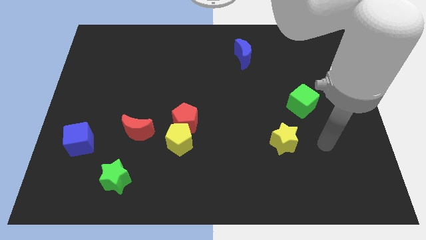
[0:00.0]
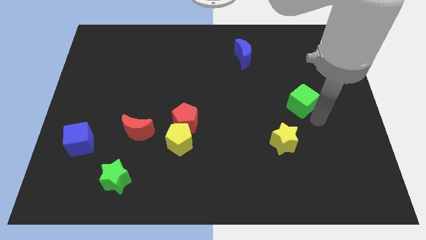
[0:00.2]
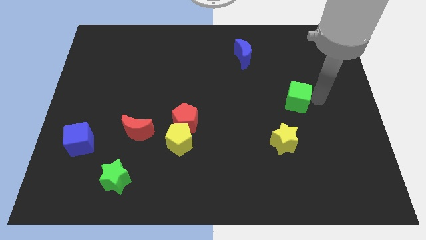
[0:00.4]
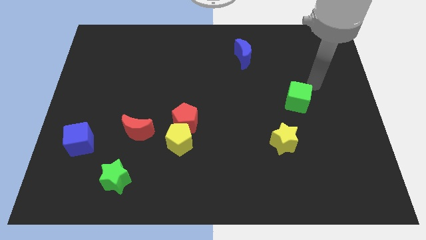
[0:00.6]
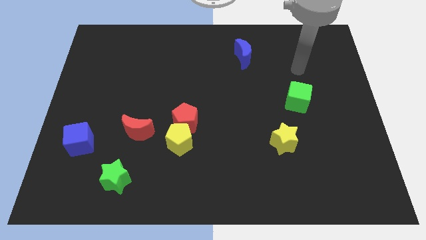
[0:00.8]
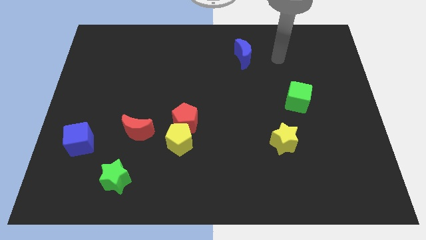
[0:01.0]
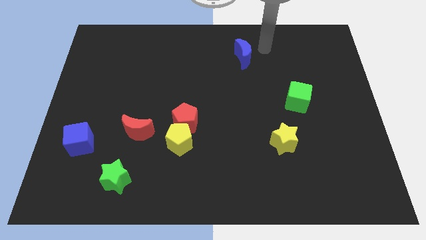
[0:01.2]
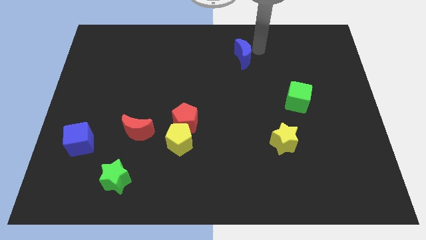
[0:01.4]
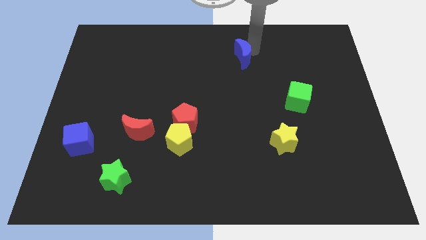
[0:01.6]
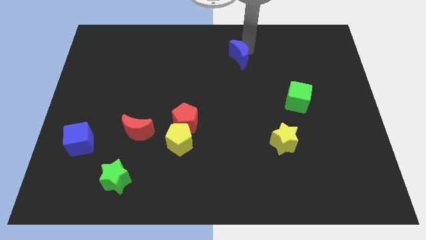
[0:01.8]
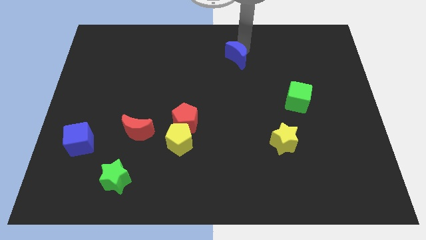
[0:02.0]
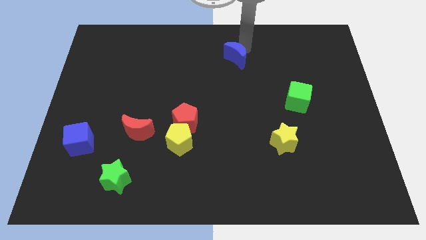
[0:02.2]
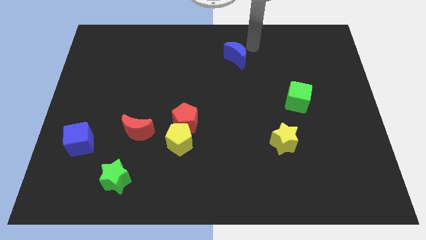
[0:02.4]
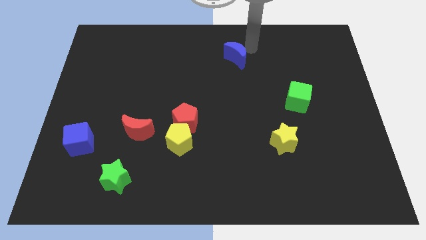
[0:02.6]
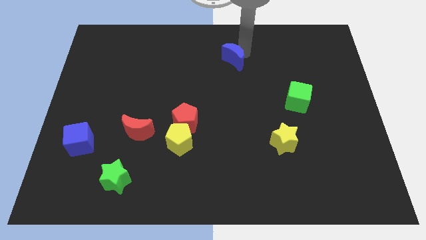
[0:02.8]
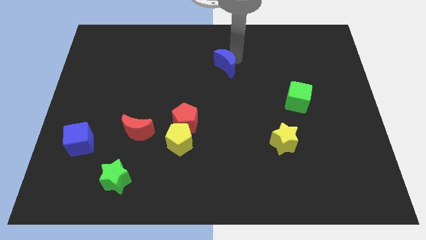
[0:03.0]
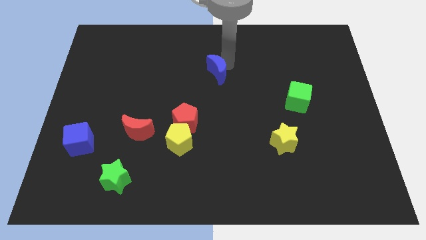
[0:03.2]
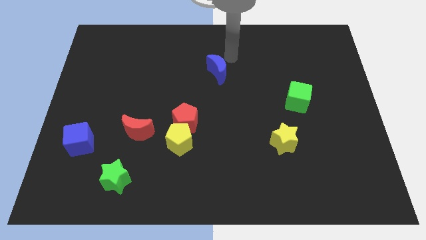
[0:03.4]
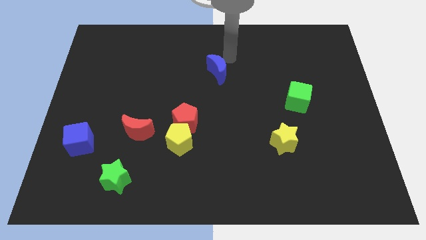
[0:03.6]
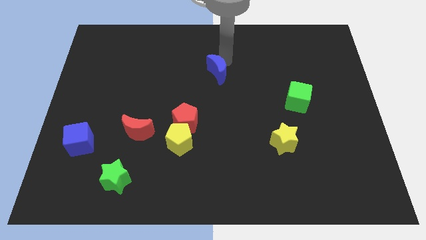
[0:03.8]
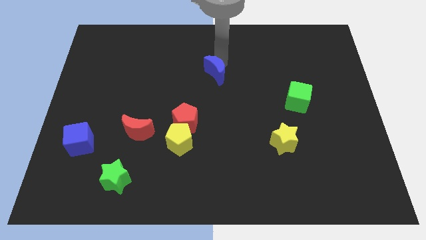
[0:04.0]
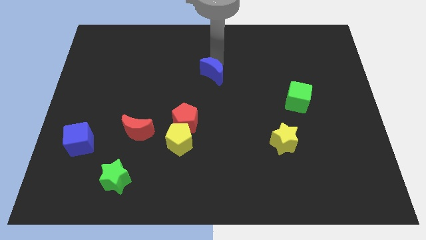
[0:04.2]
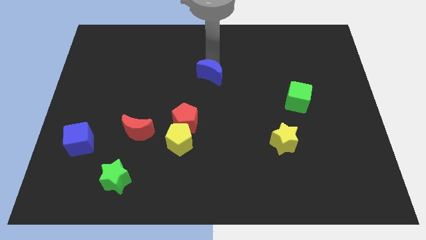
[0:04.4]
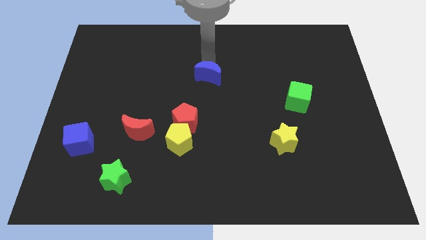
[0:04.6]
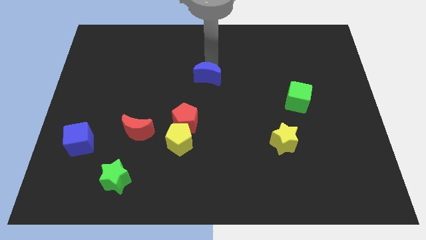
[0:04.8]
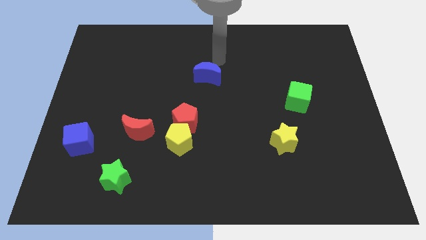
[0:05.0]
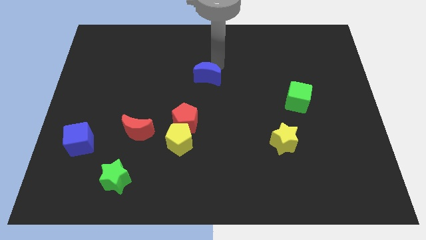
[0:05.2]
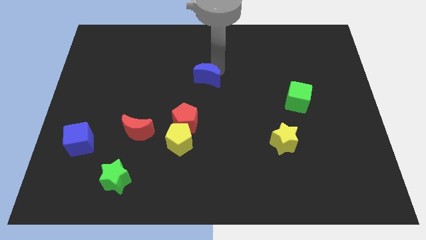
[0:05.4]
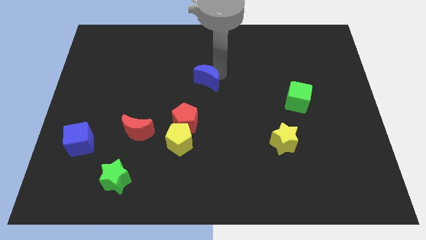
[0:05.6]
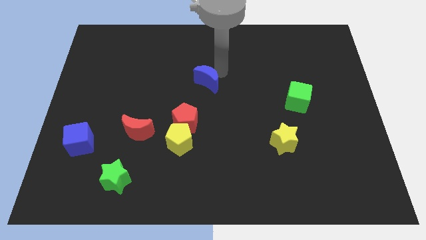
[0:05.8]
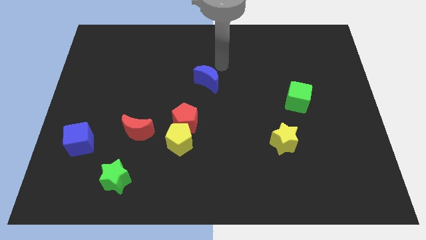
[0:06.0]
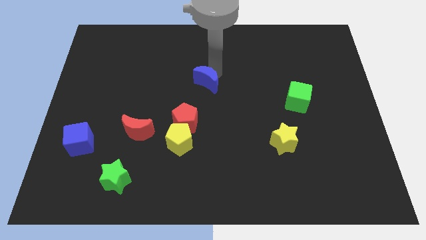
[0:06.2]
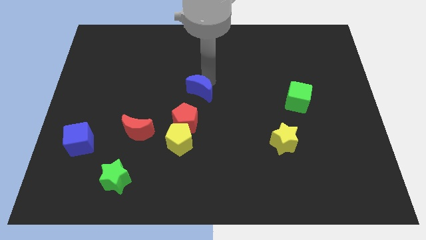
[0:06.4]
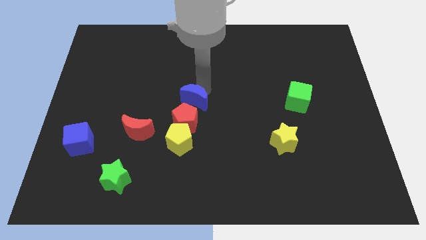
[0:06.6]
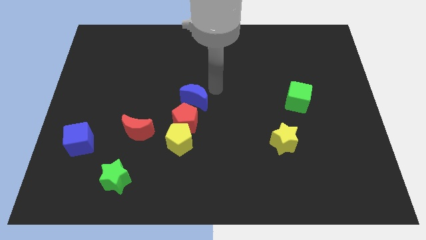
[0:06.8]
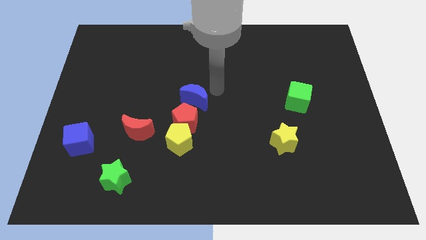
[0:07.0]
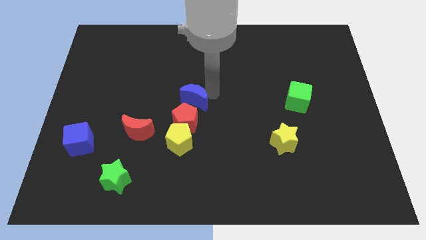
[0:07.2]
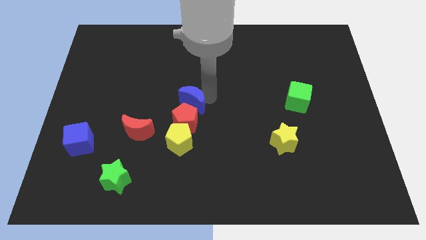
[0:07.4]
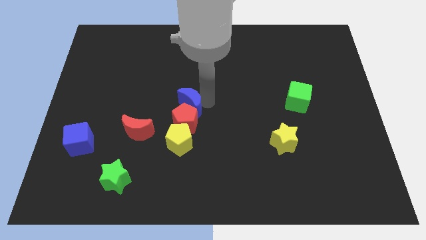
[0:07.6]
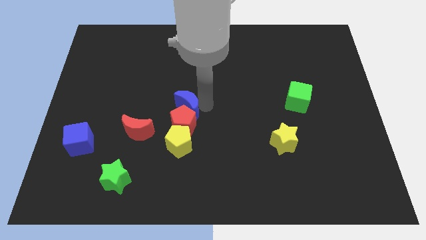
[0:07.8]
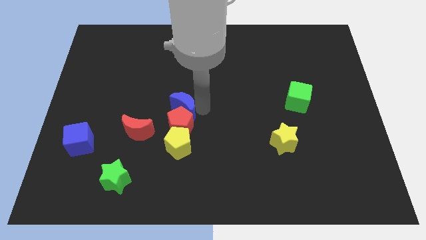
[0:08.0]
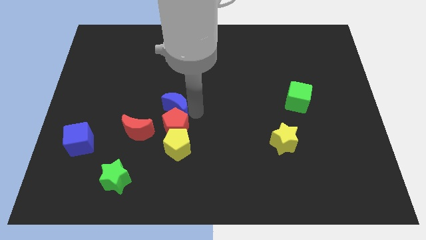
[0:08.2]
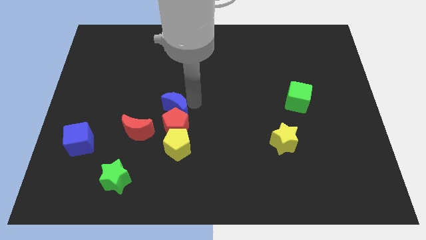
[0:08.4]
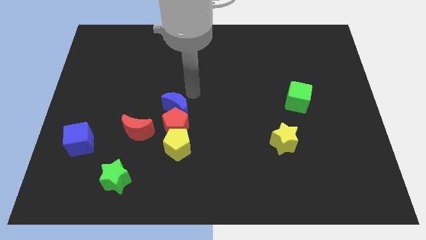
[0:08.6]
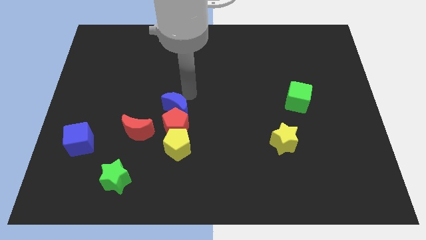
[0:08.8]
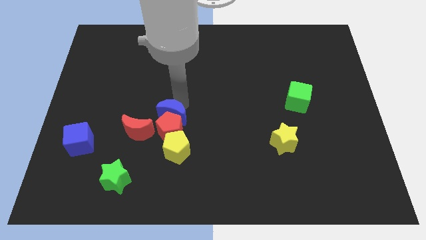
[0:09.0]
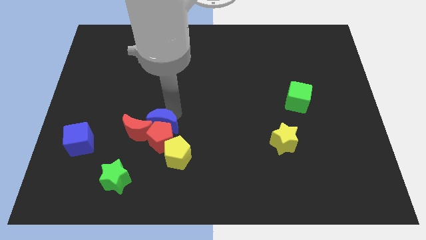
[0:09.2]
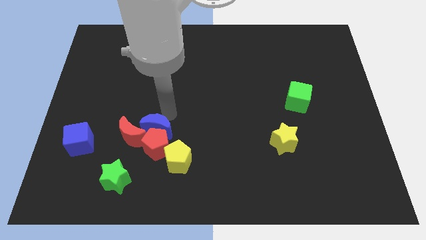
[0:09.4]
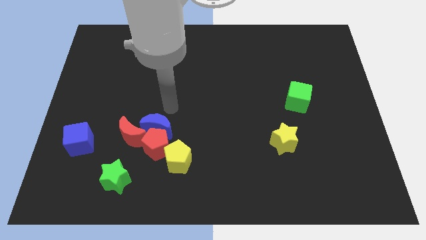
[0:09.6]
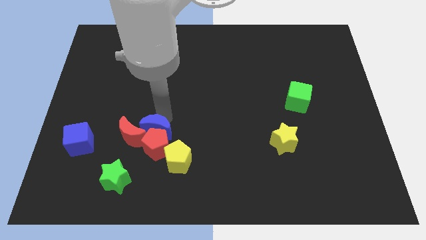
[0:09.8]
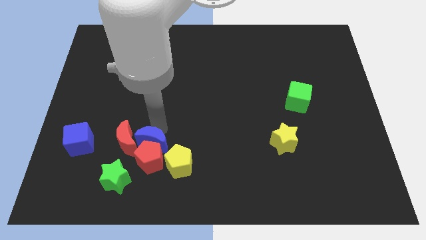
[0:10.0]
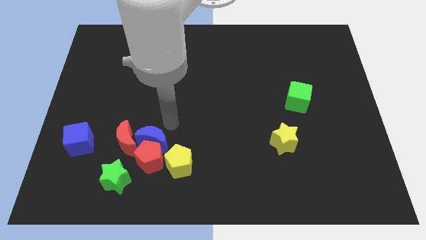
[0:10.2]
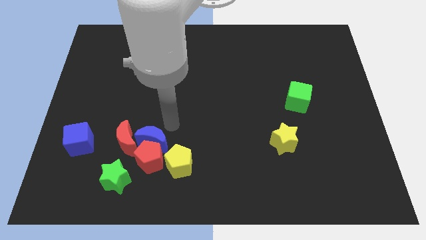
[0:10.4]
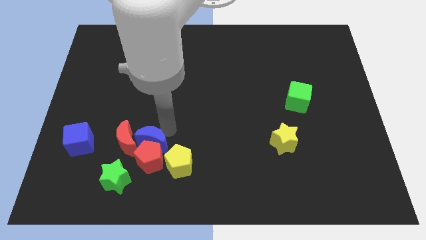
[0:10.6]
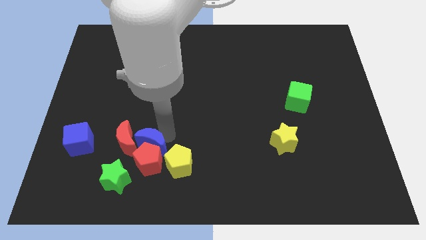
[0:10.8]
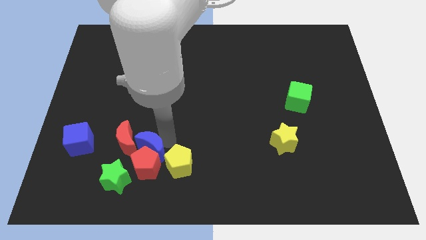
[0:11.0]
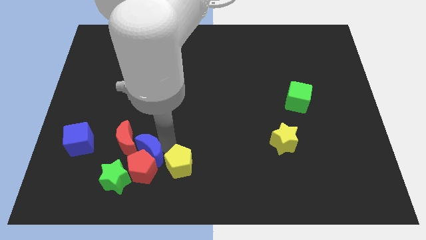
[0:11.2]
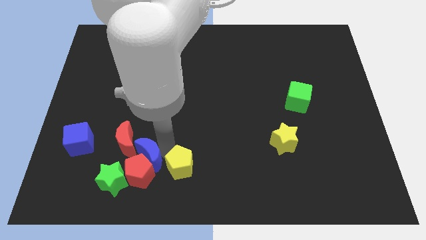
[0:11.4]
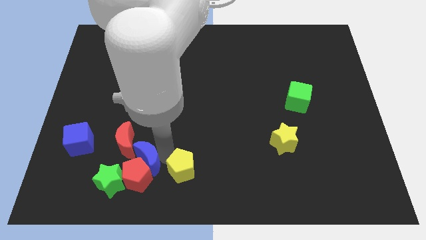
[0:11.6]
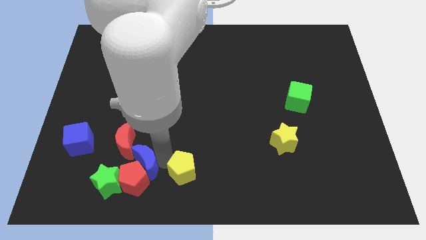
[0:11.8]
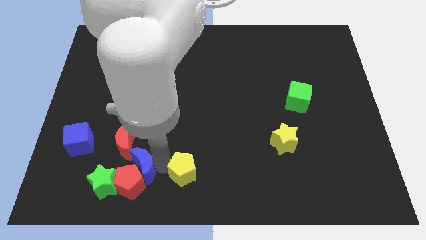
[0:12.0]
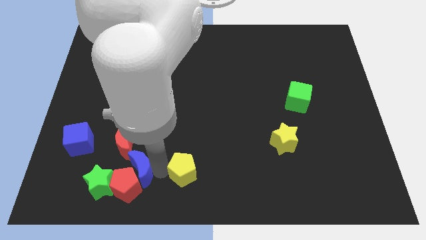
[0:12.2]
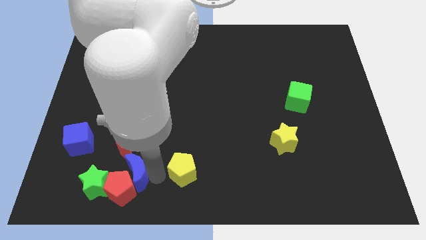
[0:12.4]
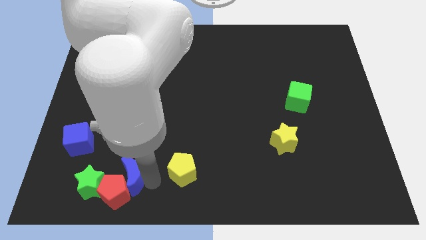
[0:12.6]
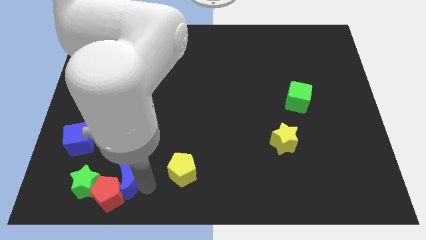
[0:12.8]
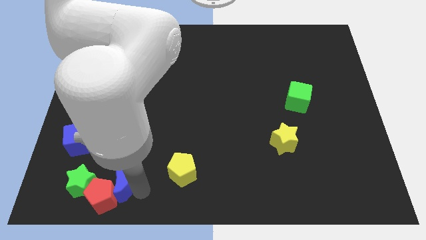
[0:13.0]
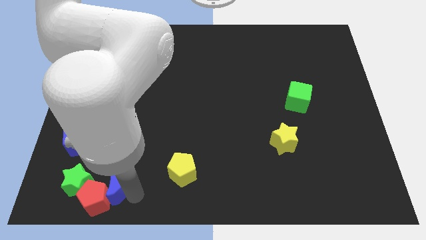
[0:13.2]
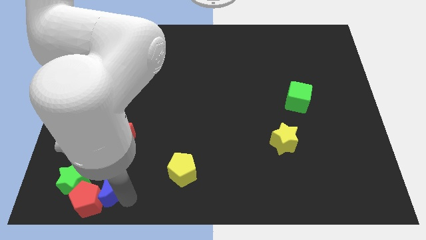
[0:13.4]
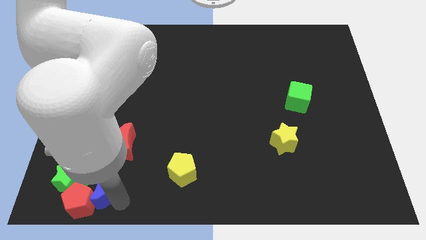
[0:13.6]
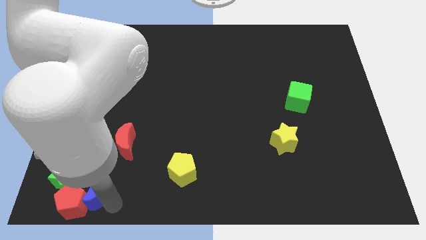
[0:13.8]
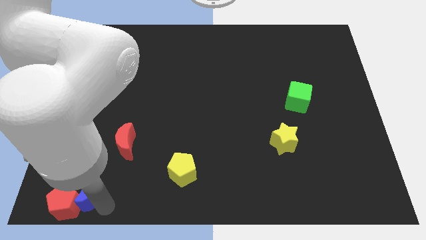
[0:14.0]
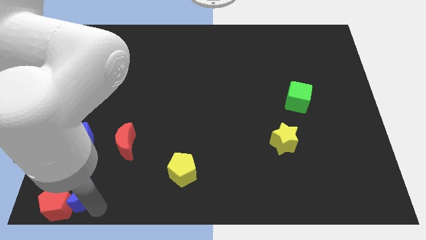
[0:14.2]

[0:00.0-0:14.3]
slide the blue moon towards the green star

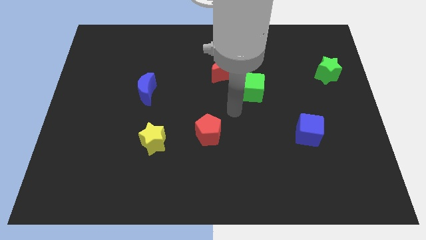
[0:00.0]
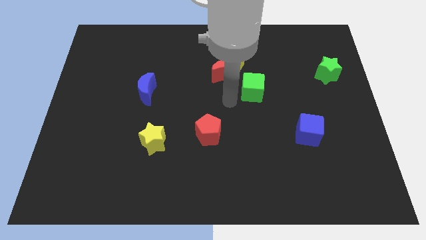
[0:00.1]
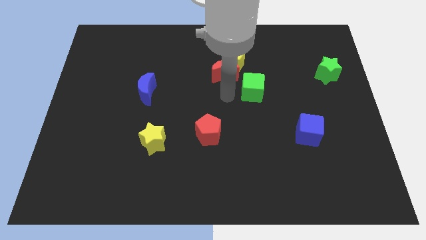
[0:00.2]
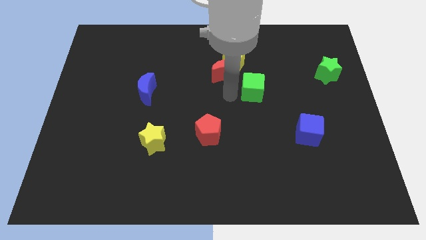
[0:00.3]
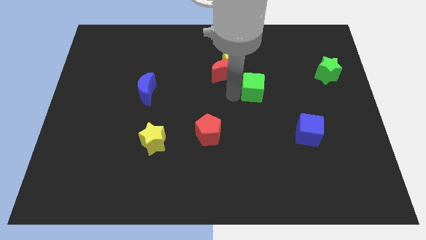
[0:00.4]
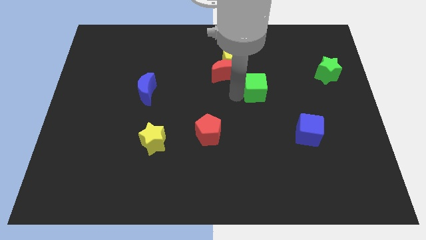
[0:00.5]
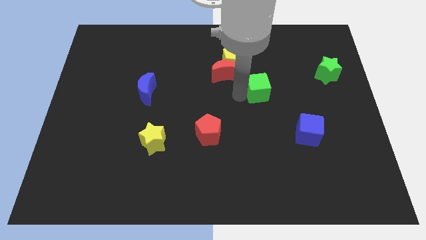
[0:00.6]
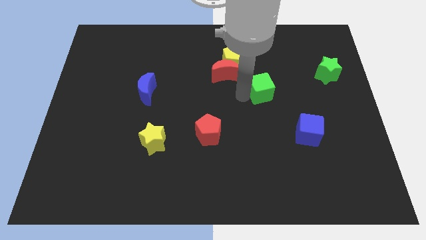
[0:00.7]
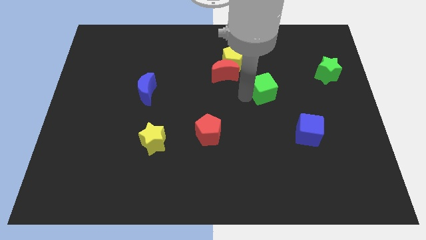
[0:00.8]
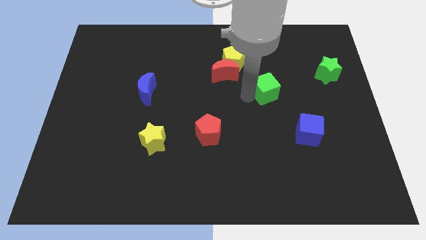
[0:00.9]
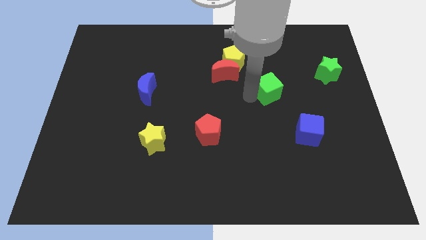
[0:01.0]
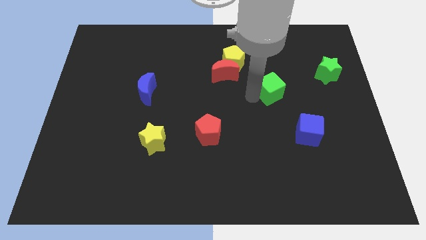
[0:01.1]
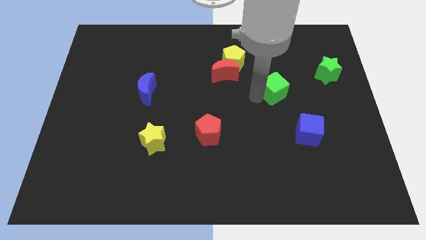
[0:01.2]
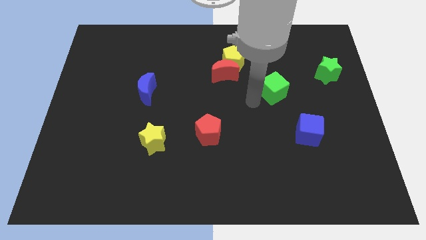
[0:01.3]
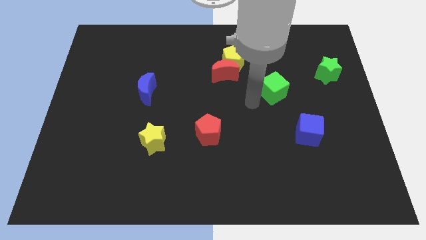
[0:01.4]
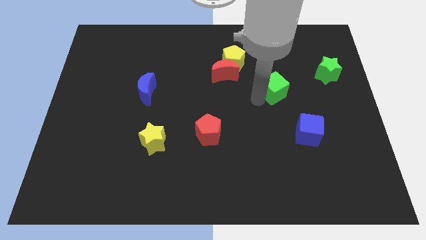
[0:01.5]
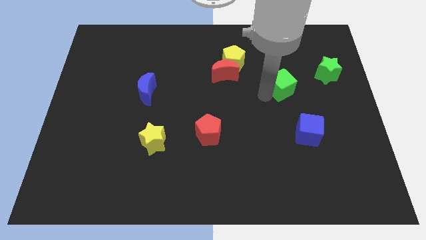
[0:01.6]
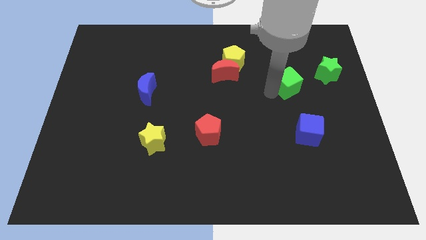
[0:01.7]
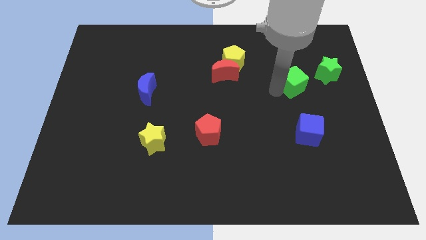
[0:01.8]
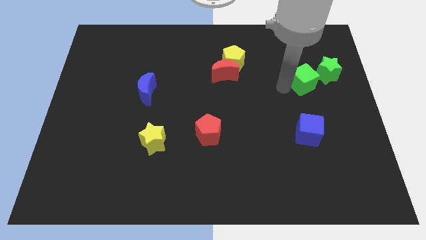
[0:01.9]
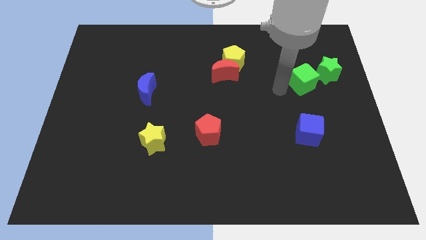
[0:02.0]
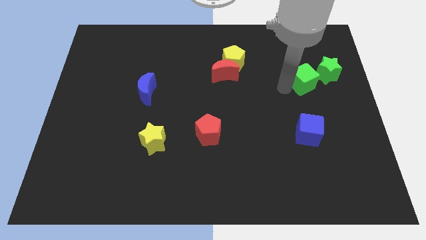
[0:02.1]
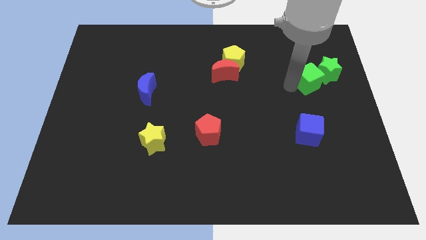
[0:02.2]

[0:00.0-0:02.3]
put the green cube to the green star
